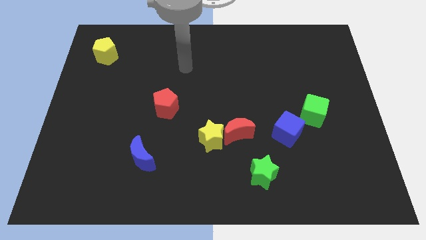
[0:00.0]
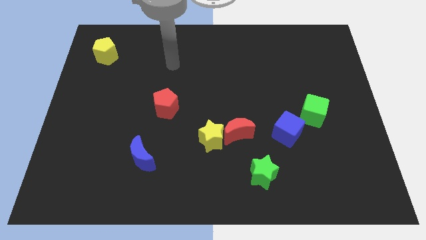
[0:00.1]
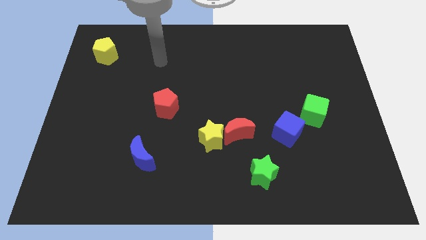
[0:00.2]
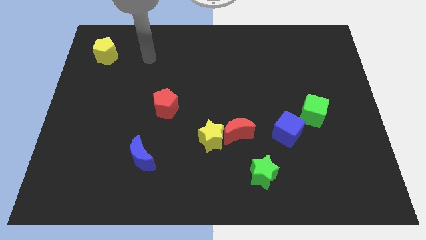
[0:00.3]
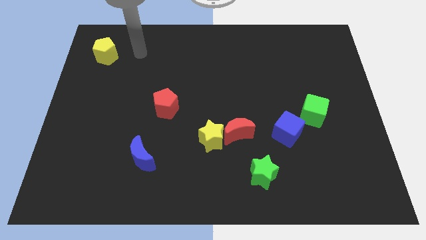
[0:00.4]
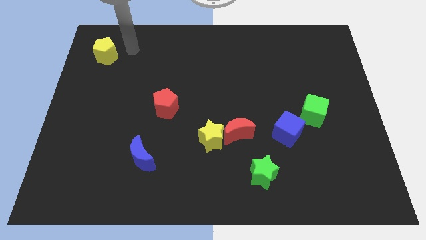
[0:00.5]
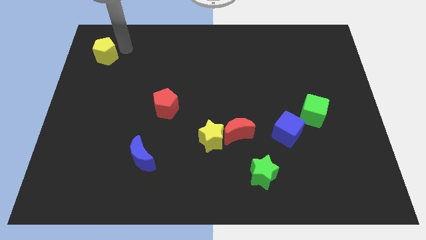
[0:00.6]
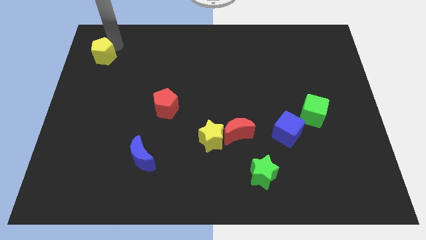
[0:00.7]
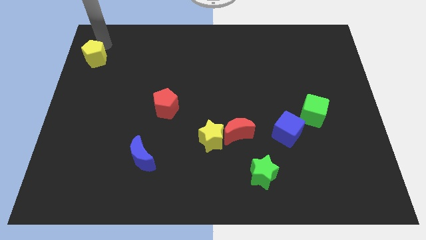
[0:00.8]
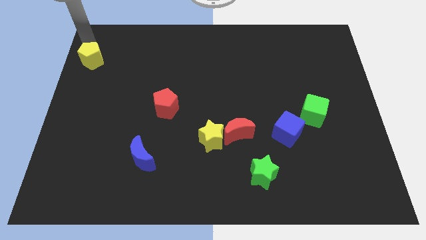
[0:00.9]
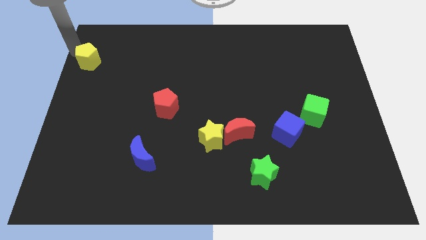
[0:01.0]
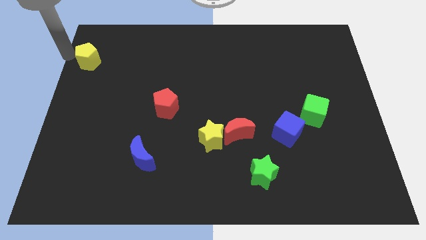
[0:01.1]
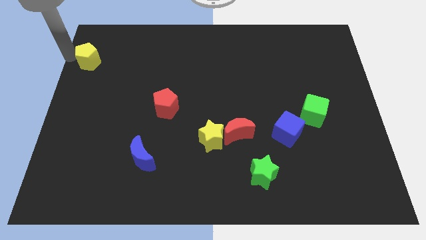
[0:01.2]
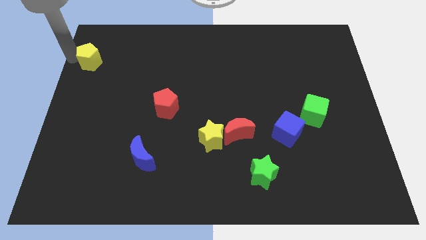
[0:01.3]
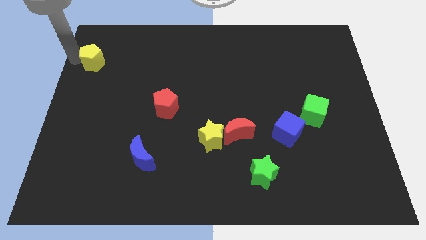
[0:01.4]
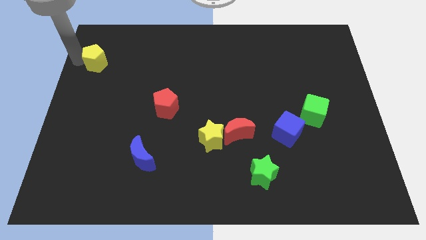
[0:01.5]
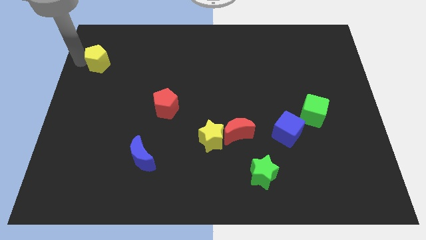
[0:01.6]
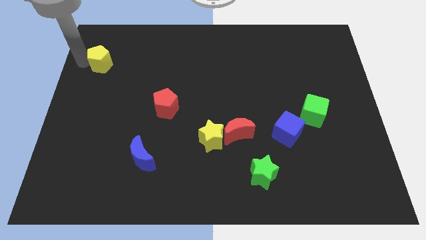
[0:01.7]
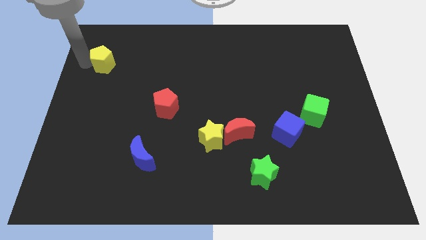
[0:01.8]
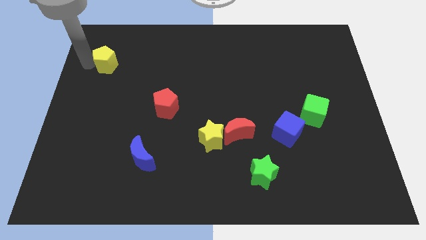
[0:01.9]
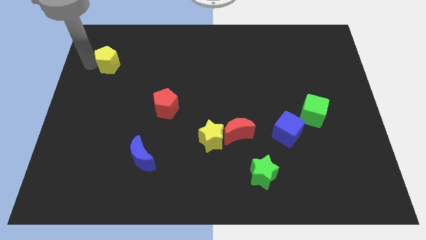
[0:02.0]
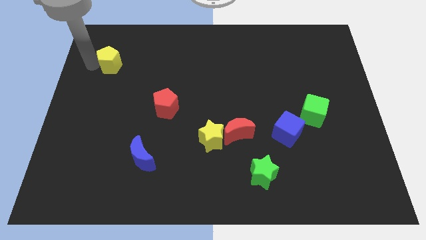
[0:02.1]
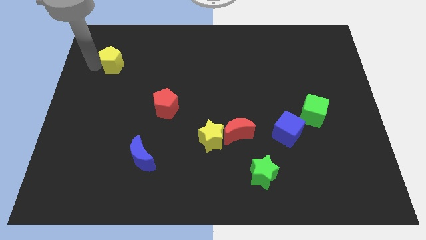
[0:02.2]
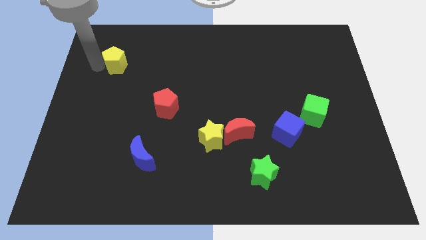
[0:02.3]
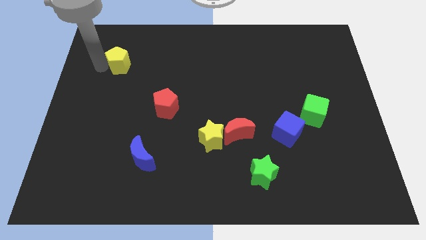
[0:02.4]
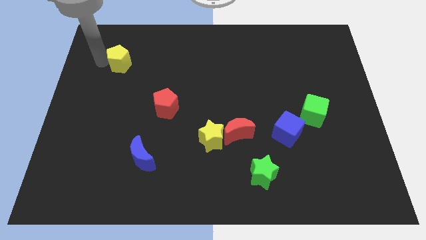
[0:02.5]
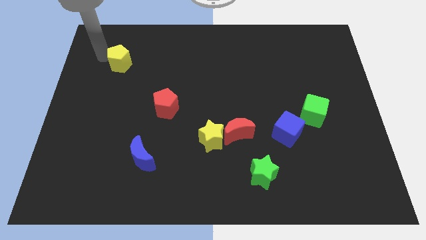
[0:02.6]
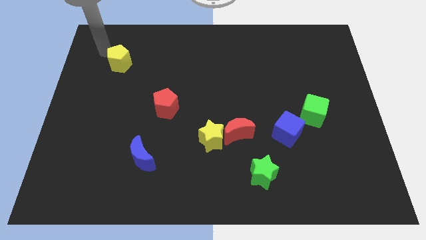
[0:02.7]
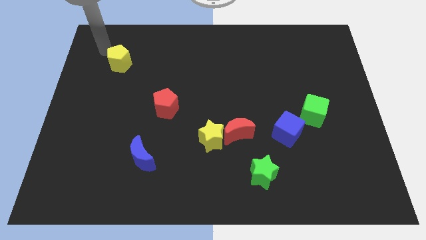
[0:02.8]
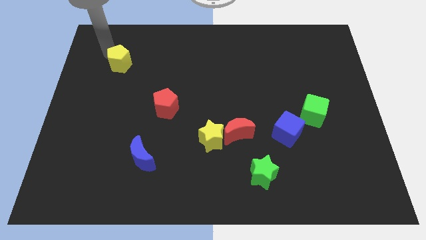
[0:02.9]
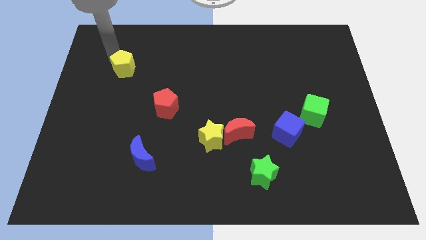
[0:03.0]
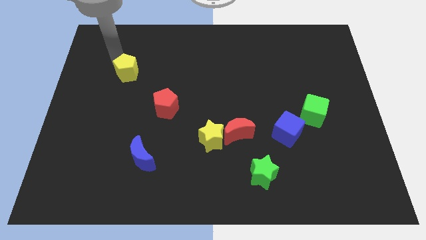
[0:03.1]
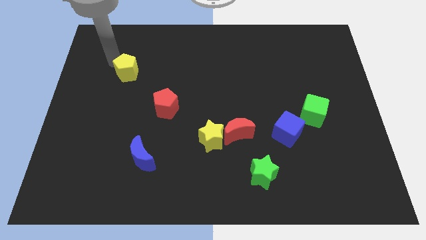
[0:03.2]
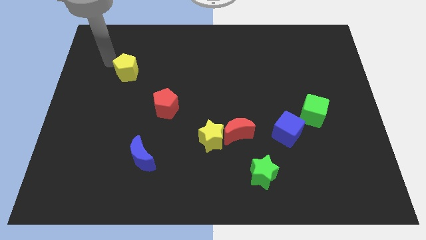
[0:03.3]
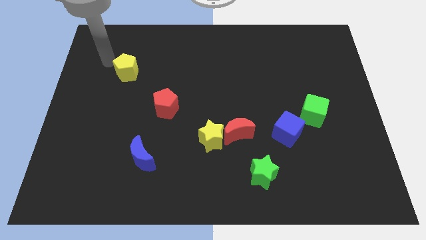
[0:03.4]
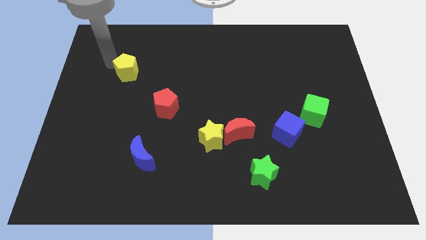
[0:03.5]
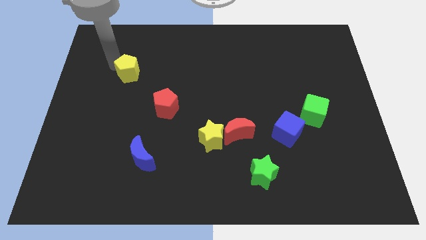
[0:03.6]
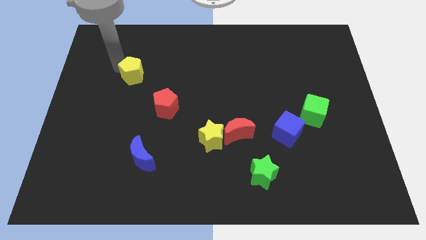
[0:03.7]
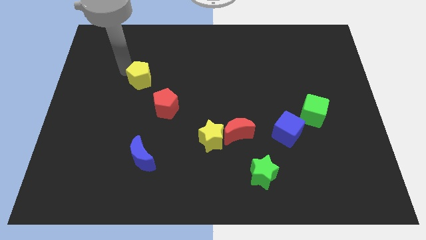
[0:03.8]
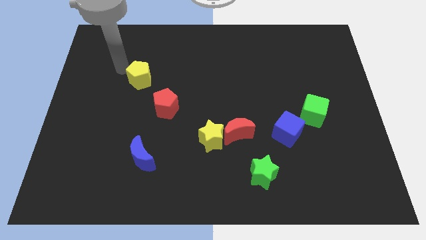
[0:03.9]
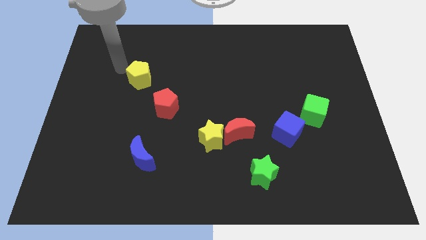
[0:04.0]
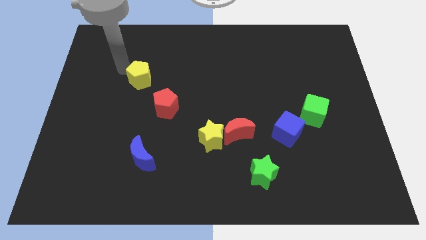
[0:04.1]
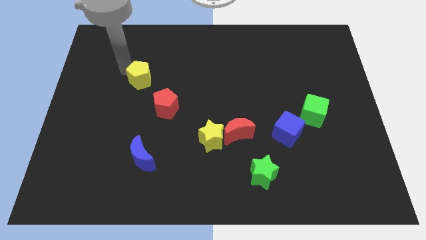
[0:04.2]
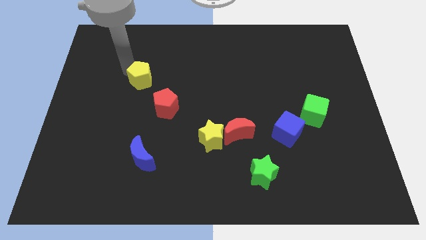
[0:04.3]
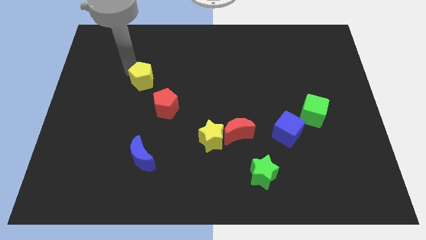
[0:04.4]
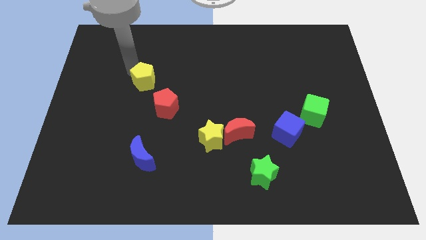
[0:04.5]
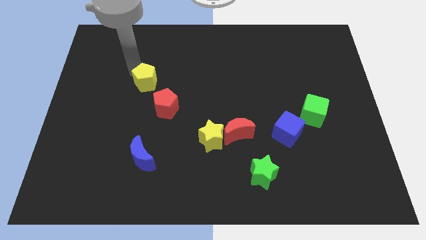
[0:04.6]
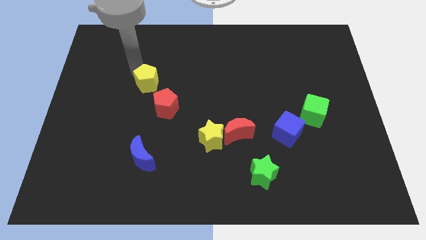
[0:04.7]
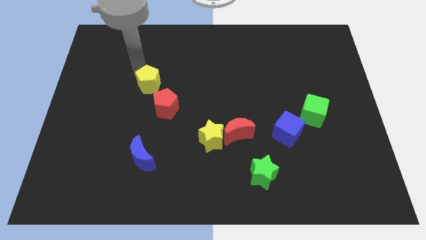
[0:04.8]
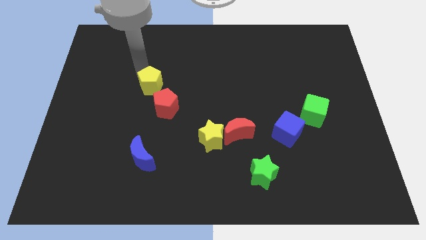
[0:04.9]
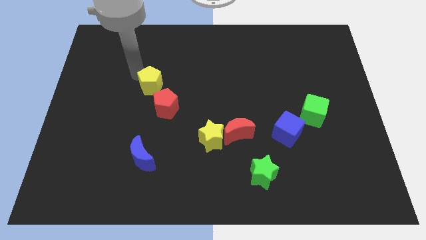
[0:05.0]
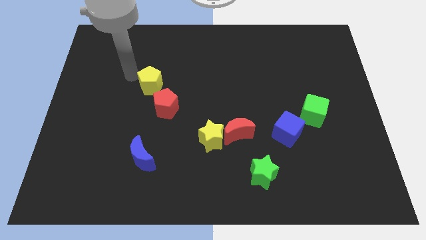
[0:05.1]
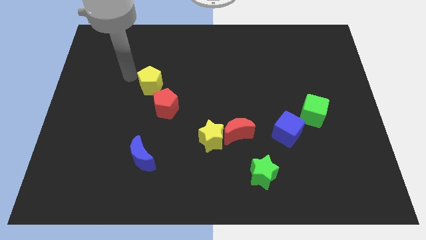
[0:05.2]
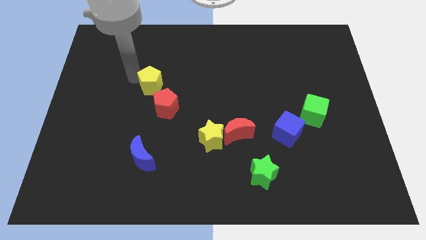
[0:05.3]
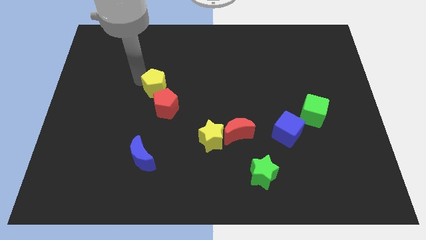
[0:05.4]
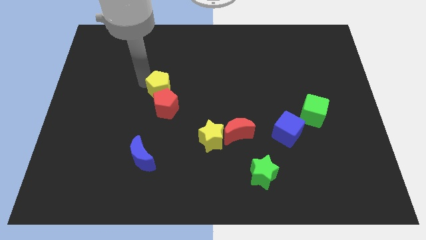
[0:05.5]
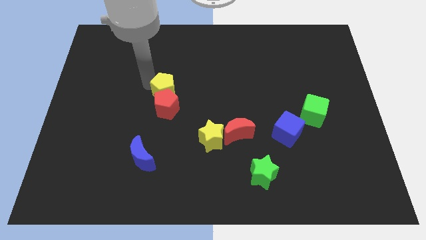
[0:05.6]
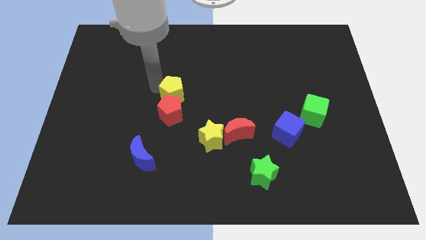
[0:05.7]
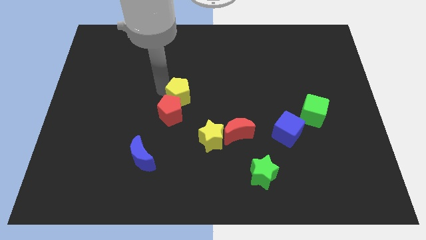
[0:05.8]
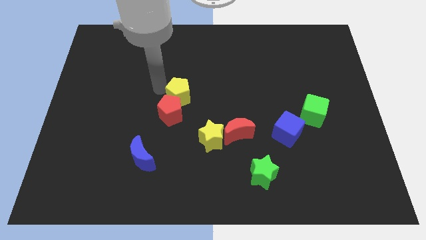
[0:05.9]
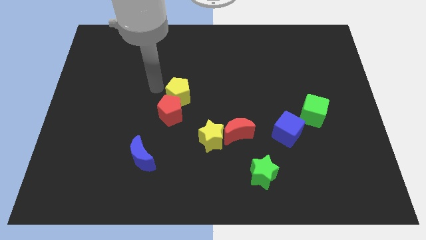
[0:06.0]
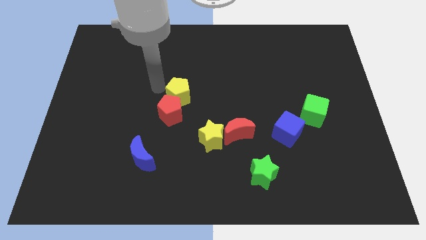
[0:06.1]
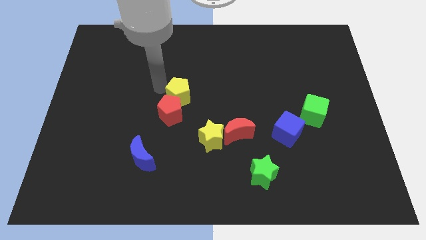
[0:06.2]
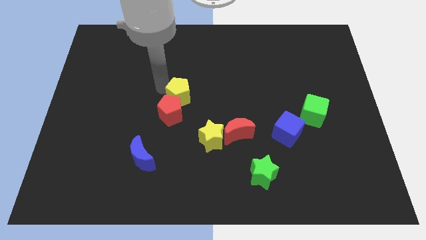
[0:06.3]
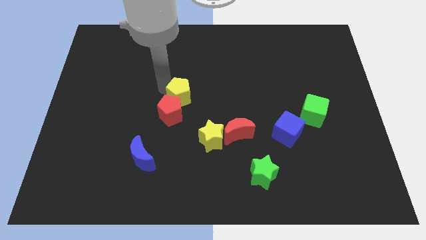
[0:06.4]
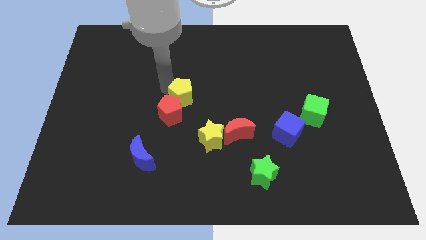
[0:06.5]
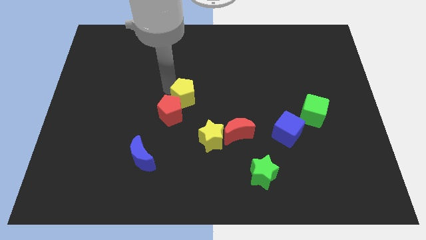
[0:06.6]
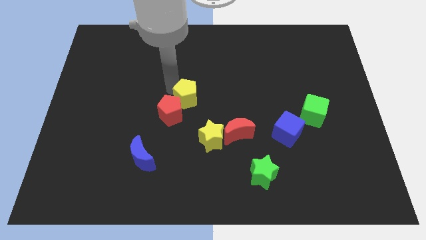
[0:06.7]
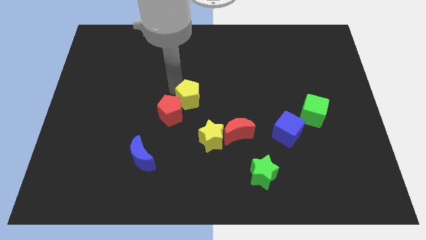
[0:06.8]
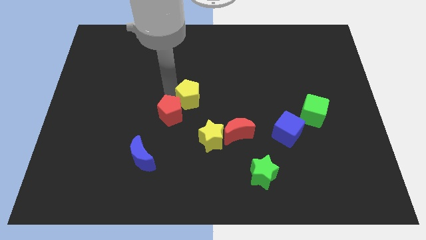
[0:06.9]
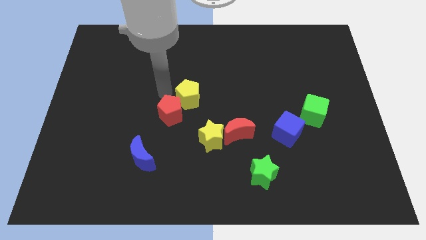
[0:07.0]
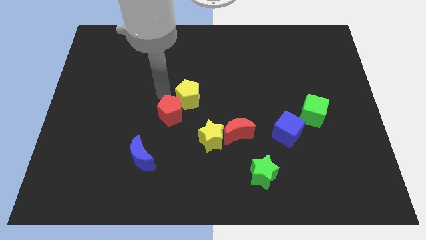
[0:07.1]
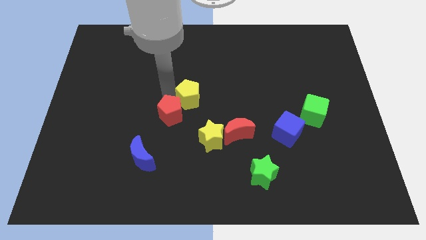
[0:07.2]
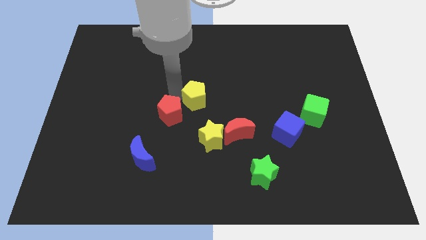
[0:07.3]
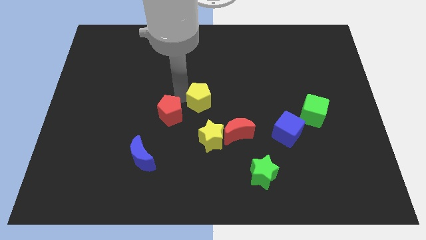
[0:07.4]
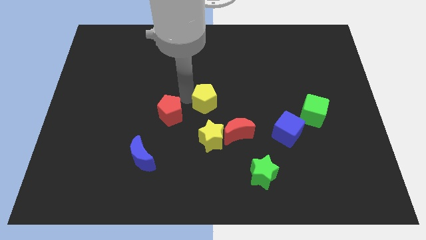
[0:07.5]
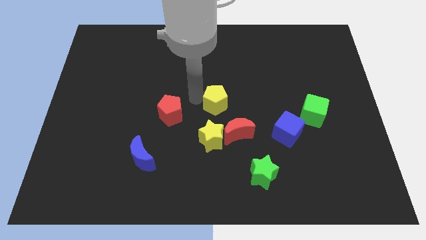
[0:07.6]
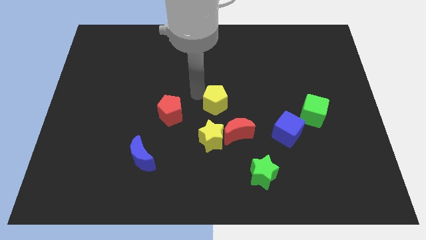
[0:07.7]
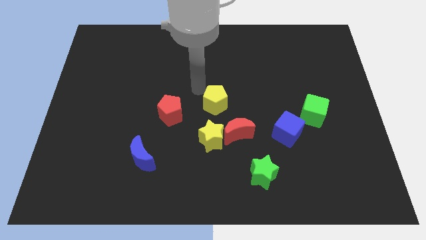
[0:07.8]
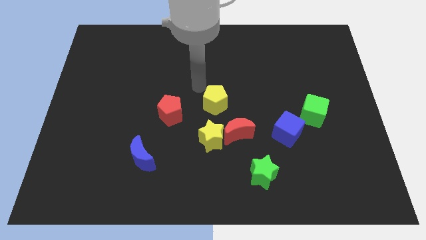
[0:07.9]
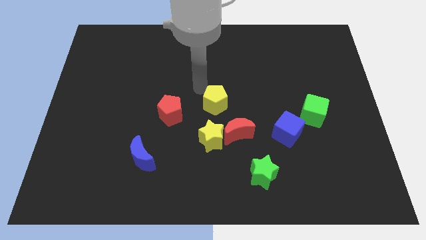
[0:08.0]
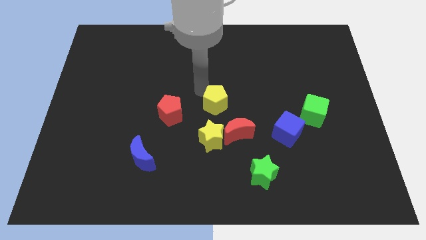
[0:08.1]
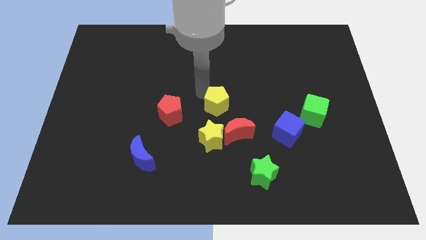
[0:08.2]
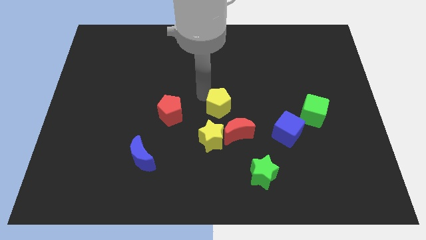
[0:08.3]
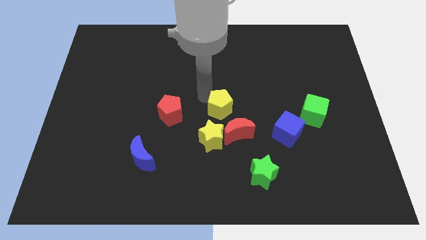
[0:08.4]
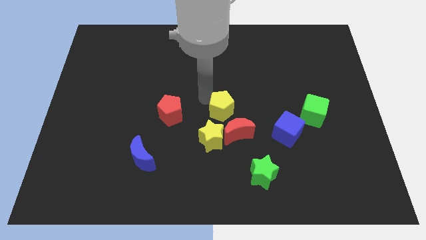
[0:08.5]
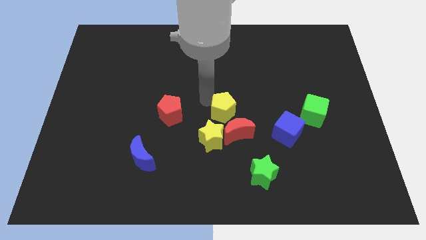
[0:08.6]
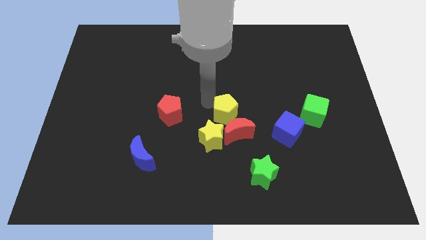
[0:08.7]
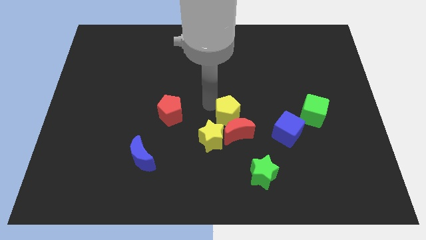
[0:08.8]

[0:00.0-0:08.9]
push the yellow pentagon to the red moon
